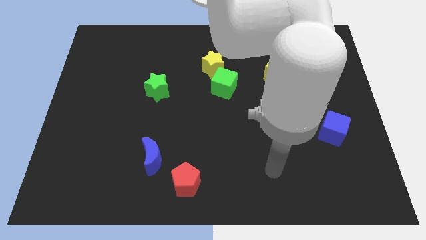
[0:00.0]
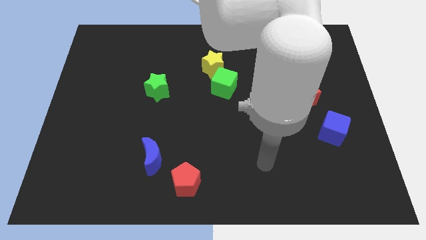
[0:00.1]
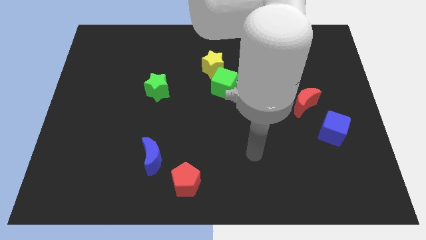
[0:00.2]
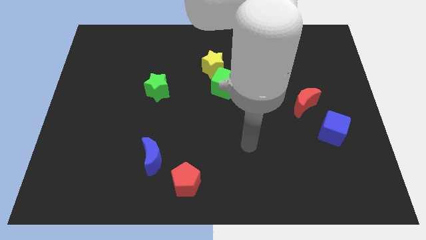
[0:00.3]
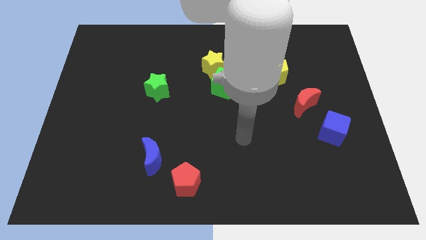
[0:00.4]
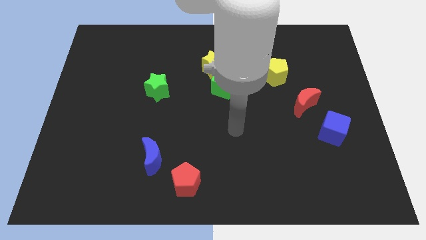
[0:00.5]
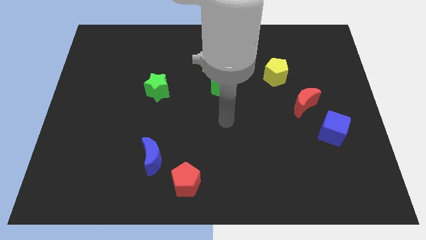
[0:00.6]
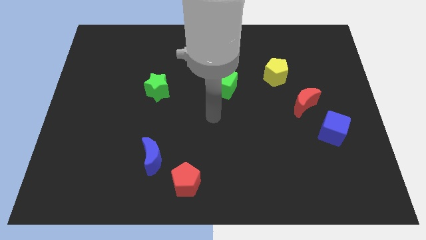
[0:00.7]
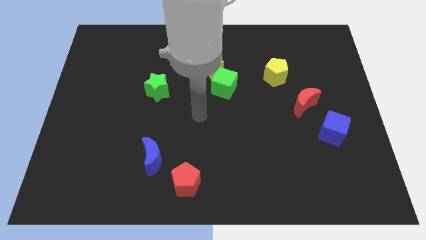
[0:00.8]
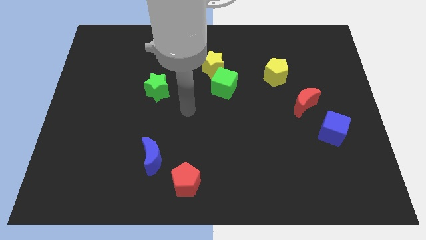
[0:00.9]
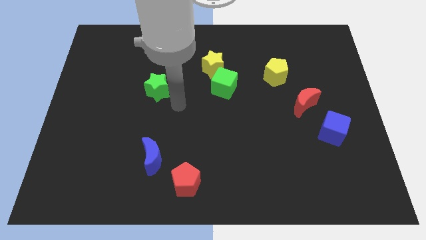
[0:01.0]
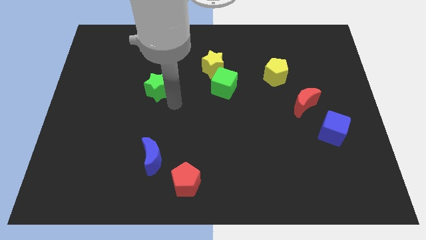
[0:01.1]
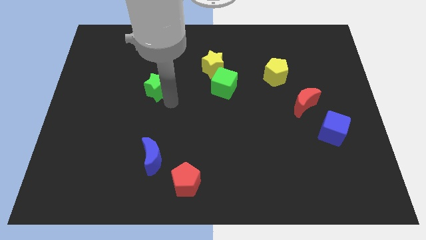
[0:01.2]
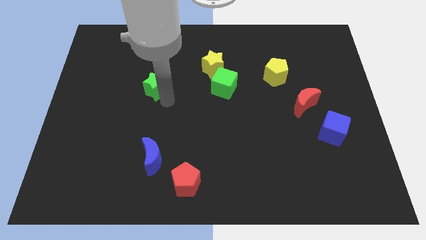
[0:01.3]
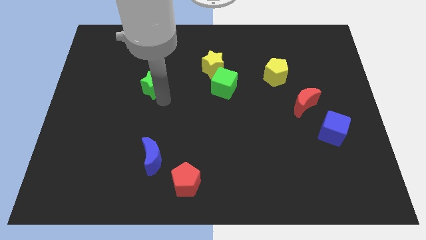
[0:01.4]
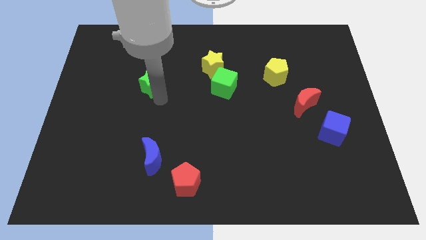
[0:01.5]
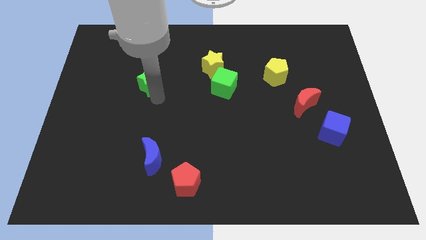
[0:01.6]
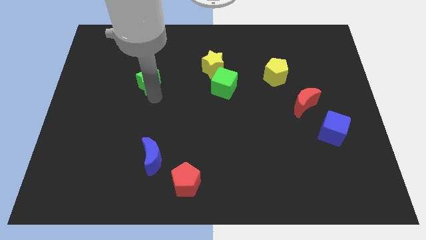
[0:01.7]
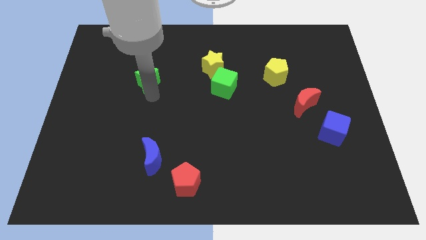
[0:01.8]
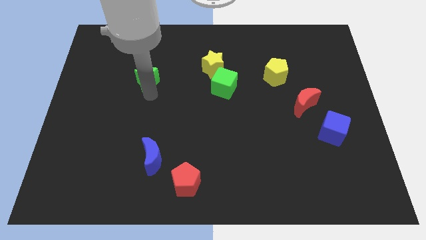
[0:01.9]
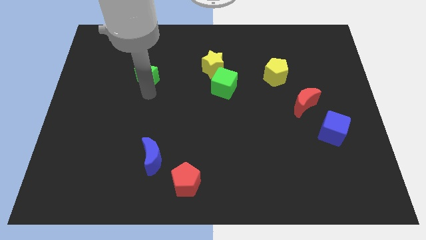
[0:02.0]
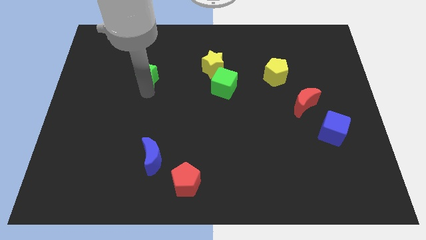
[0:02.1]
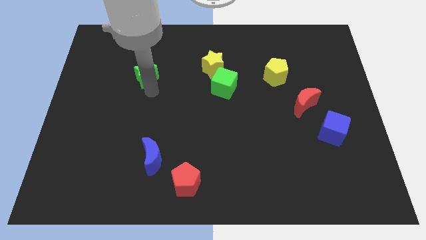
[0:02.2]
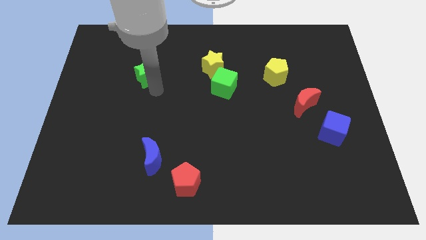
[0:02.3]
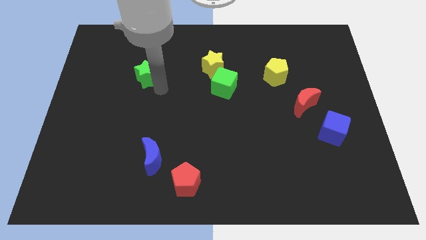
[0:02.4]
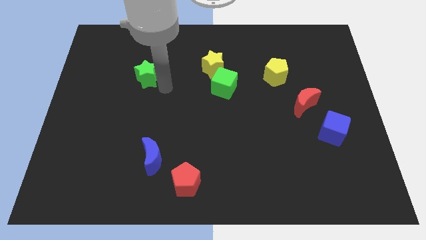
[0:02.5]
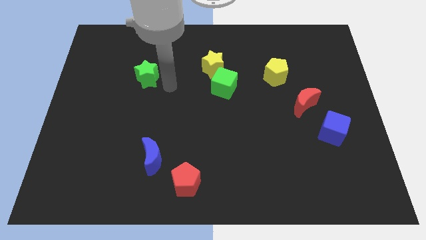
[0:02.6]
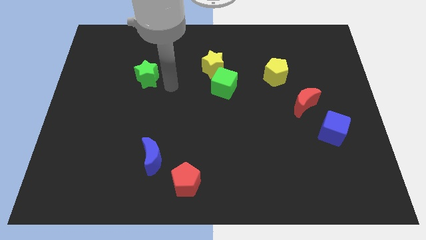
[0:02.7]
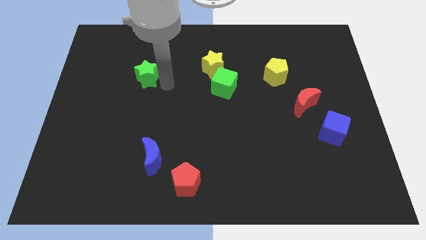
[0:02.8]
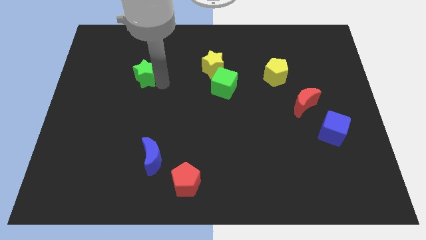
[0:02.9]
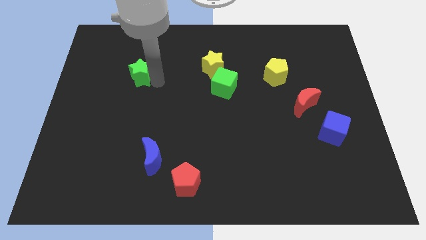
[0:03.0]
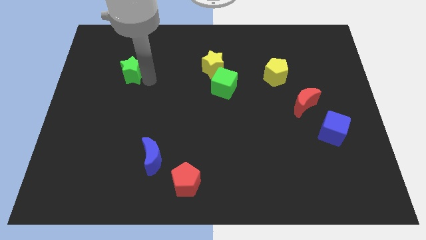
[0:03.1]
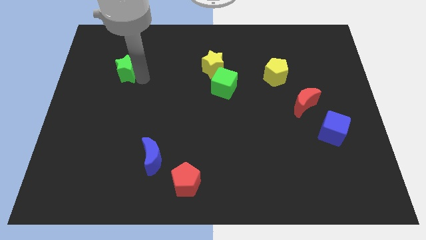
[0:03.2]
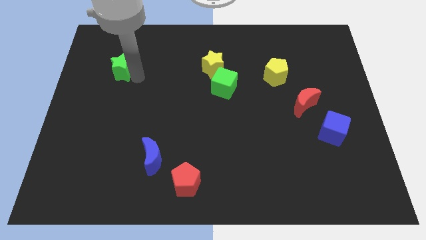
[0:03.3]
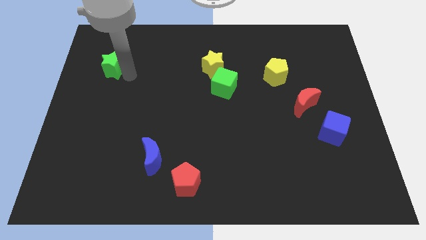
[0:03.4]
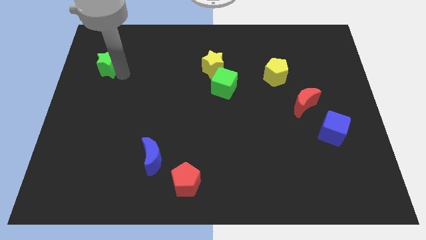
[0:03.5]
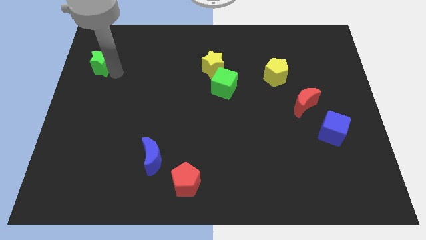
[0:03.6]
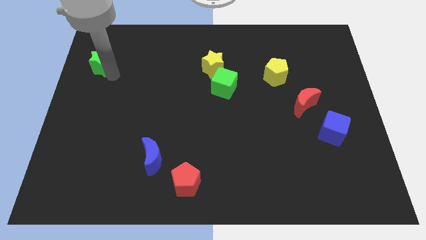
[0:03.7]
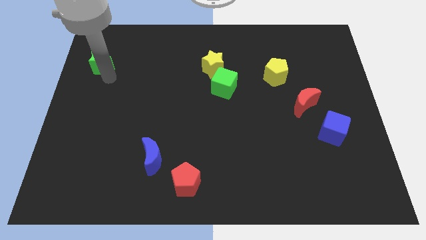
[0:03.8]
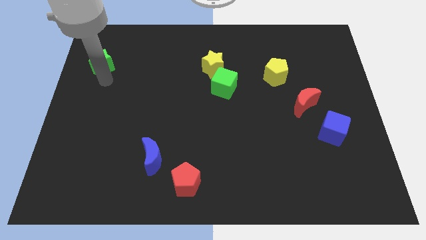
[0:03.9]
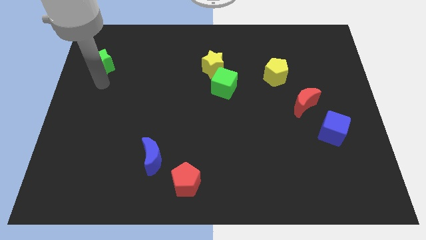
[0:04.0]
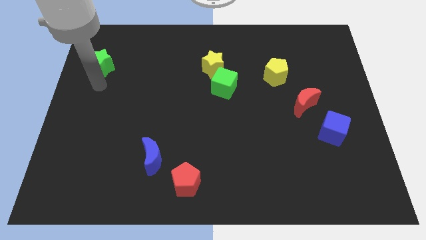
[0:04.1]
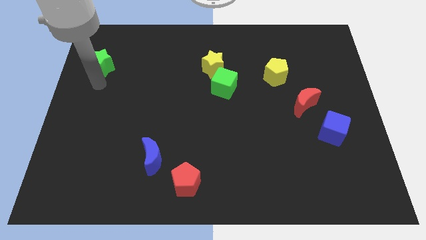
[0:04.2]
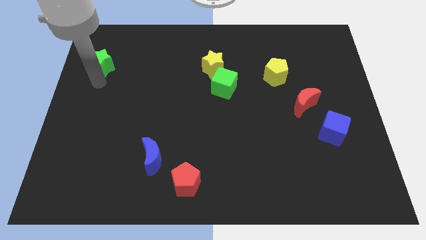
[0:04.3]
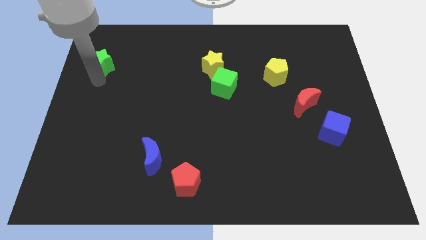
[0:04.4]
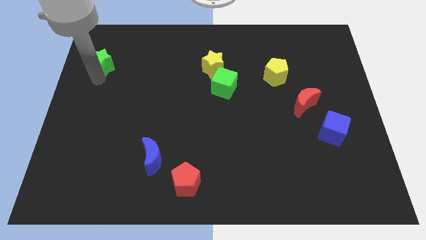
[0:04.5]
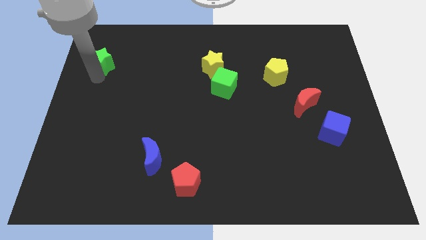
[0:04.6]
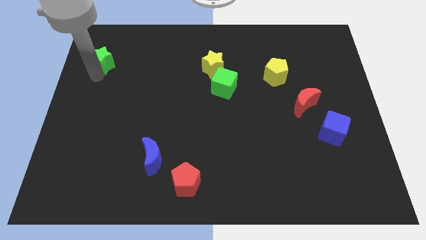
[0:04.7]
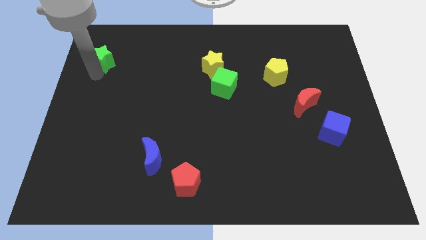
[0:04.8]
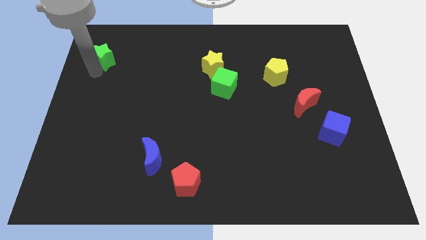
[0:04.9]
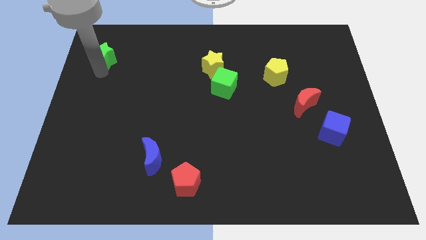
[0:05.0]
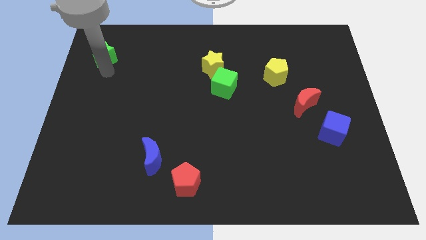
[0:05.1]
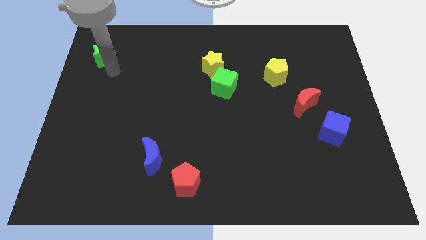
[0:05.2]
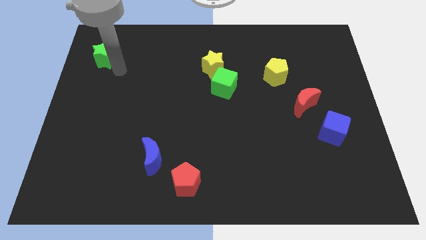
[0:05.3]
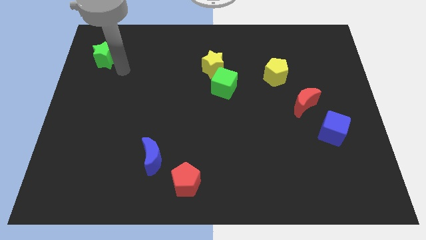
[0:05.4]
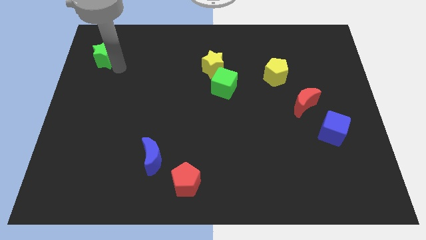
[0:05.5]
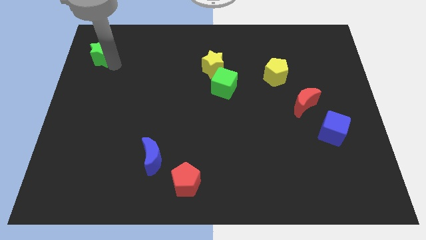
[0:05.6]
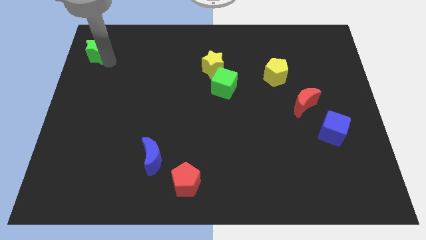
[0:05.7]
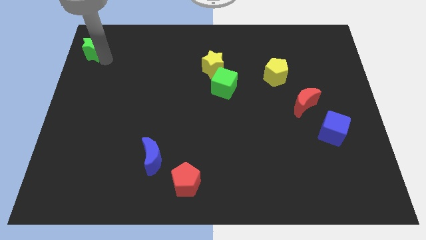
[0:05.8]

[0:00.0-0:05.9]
push the green star to the upper left corner

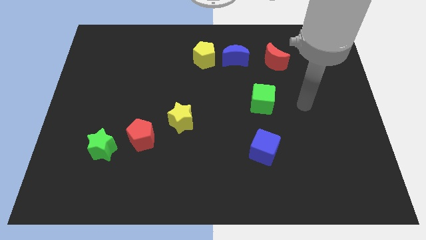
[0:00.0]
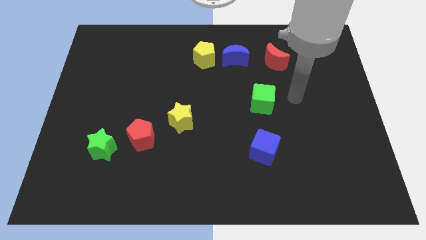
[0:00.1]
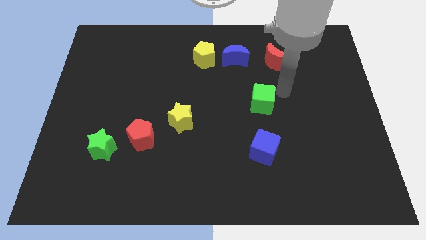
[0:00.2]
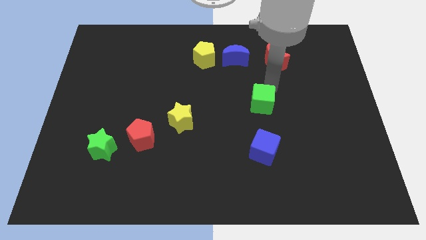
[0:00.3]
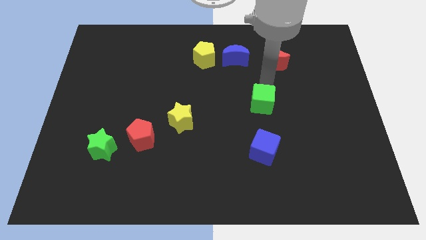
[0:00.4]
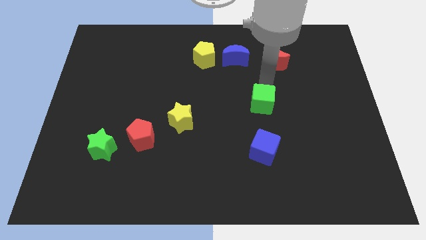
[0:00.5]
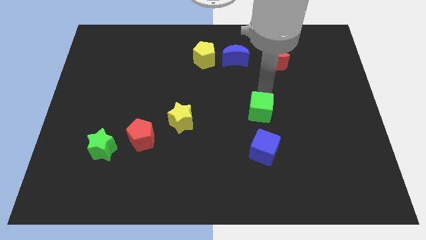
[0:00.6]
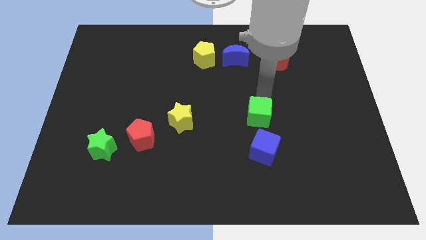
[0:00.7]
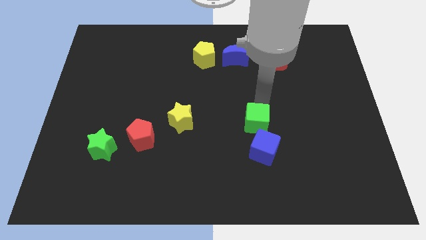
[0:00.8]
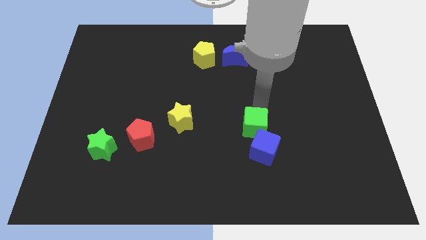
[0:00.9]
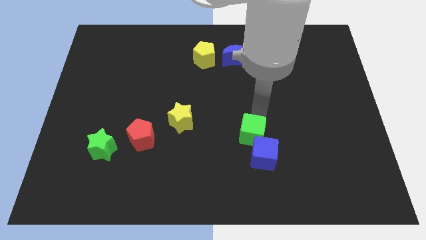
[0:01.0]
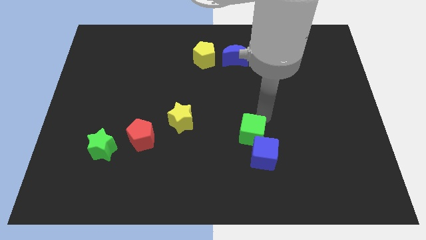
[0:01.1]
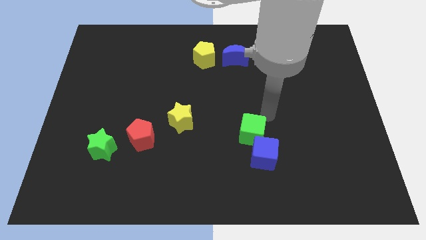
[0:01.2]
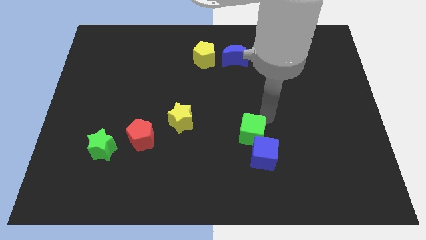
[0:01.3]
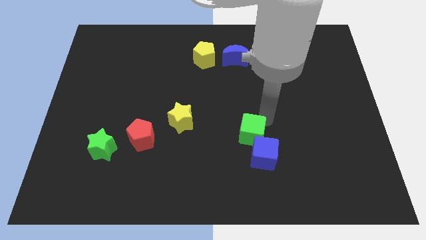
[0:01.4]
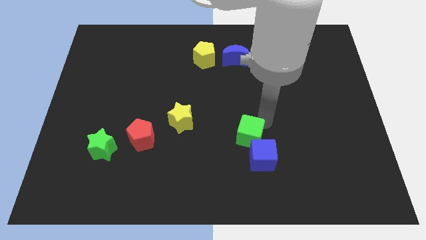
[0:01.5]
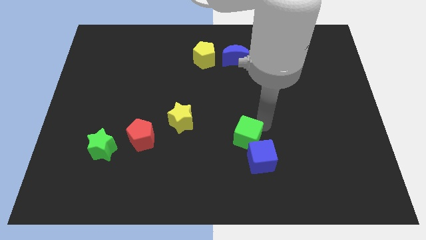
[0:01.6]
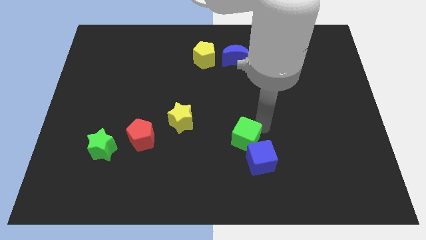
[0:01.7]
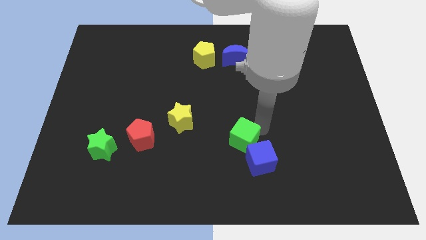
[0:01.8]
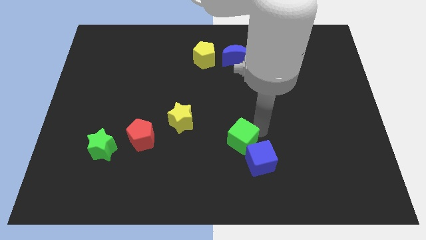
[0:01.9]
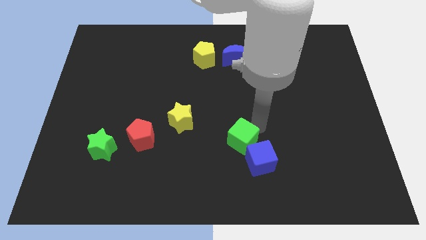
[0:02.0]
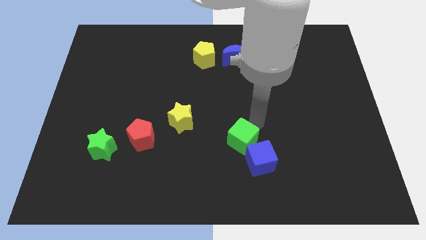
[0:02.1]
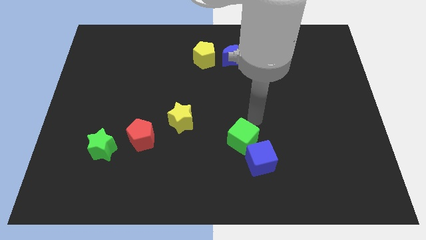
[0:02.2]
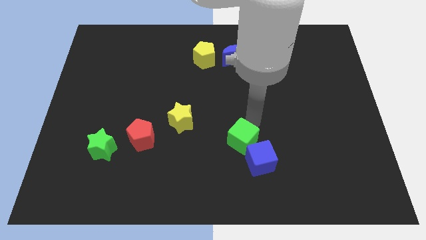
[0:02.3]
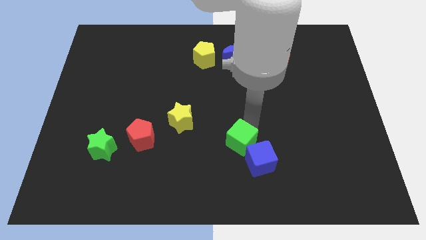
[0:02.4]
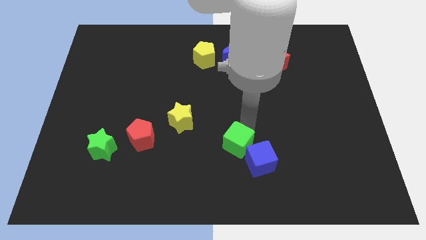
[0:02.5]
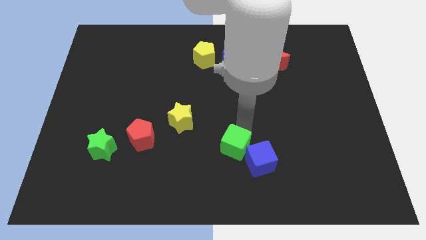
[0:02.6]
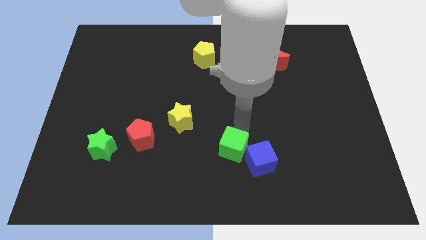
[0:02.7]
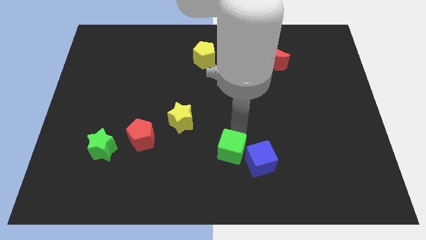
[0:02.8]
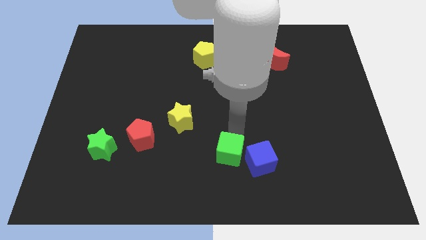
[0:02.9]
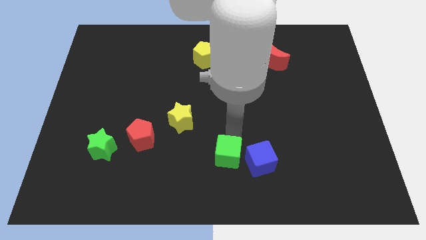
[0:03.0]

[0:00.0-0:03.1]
slide the green cube to the bottom
